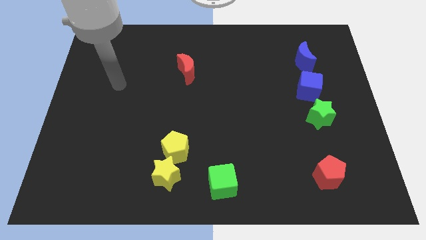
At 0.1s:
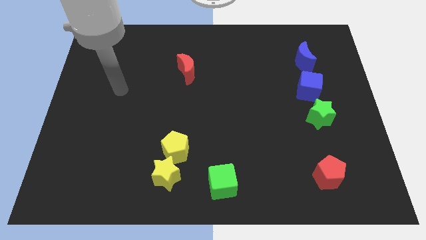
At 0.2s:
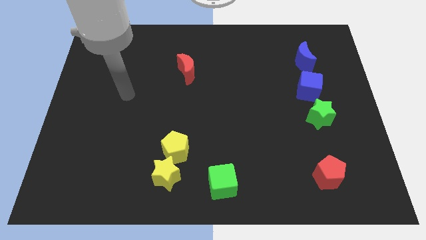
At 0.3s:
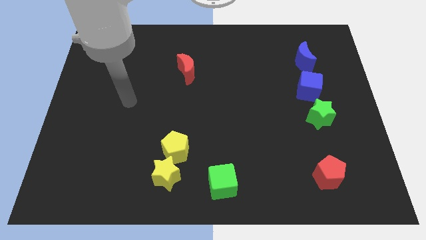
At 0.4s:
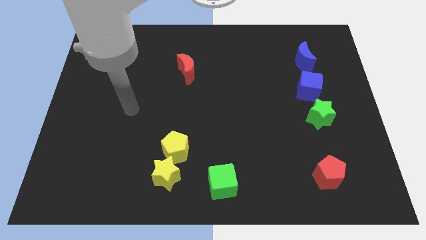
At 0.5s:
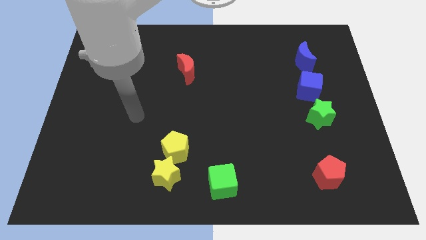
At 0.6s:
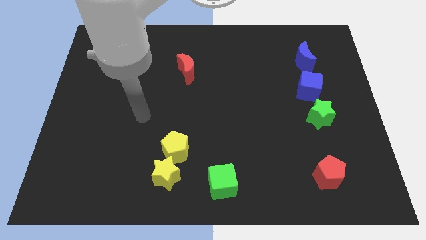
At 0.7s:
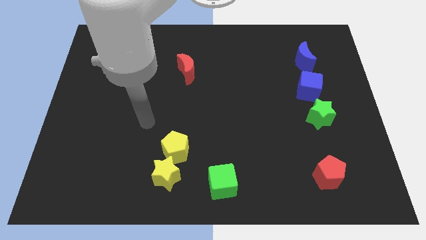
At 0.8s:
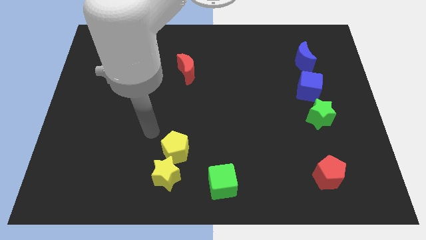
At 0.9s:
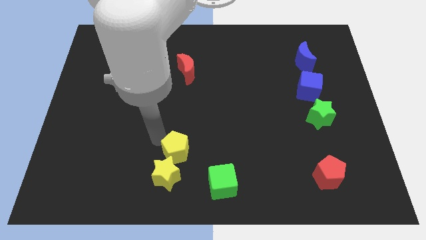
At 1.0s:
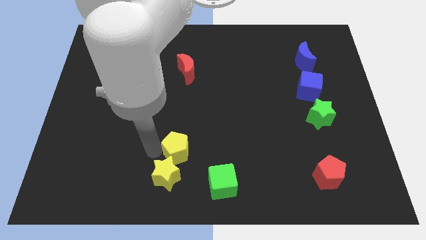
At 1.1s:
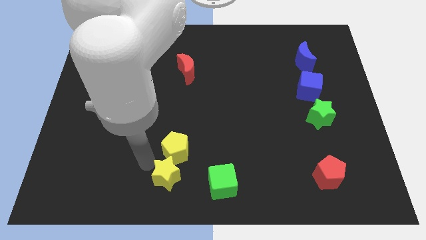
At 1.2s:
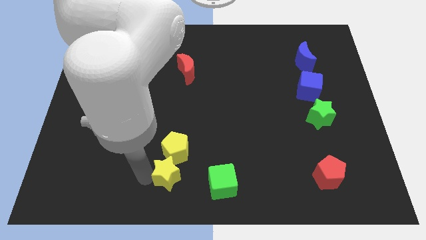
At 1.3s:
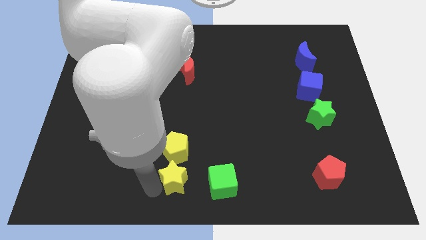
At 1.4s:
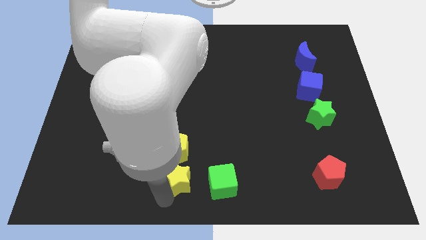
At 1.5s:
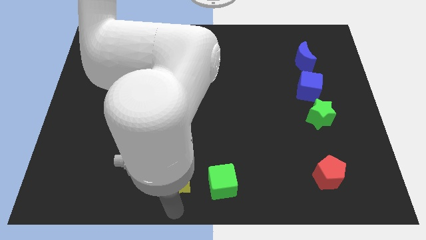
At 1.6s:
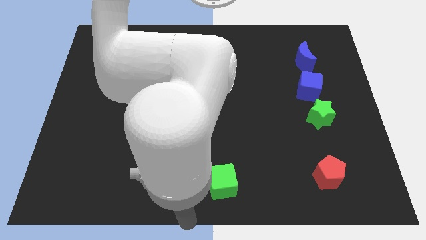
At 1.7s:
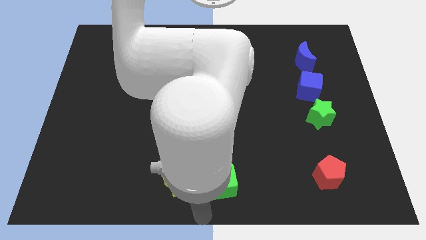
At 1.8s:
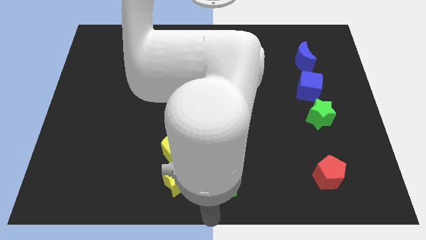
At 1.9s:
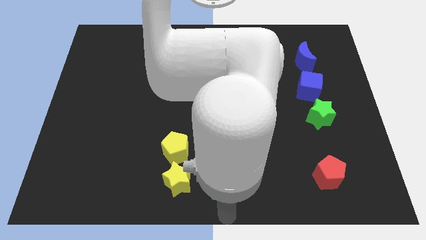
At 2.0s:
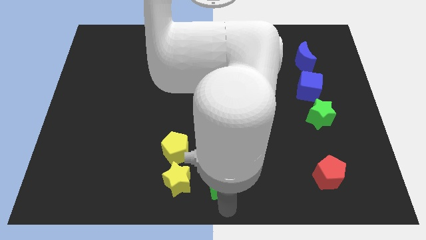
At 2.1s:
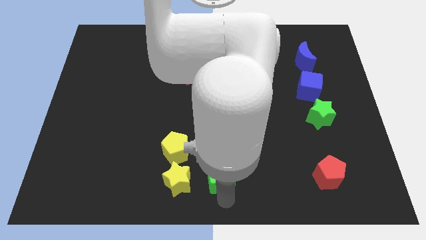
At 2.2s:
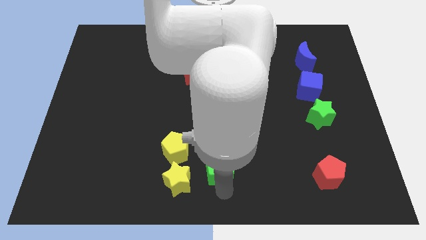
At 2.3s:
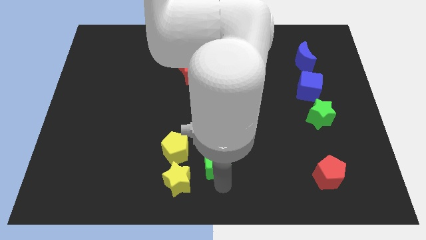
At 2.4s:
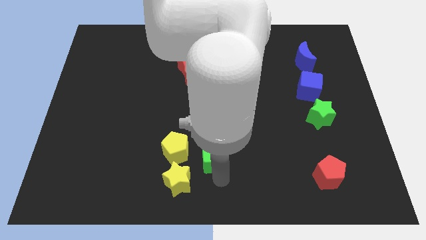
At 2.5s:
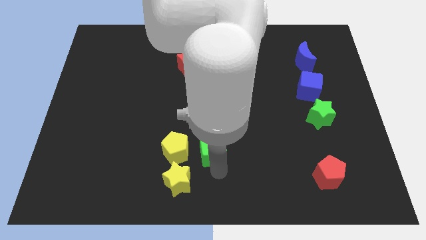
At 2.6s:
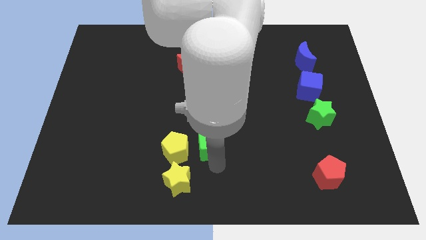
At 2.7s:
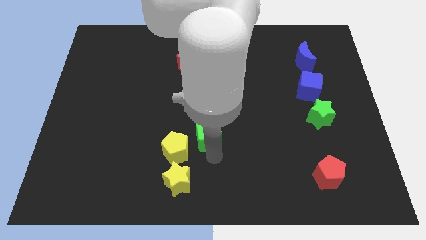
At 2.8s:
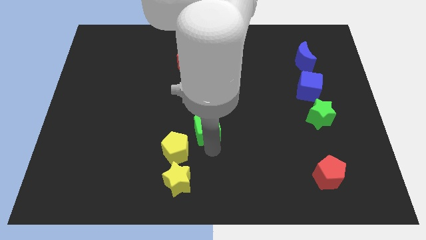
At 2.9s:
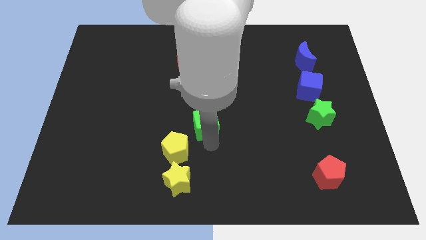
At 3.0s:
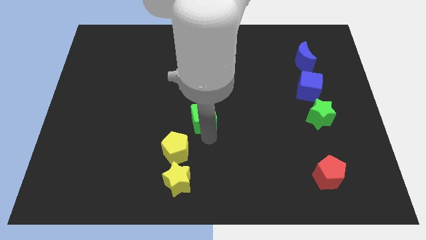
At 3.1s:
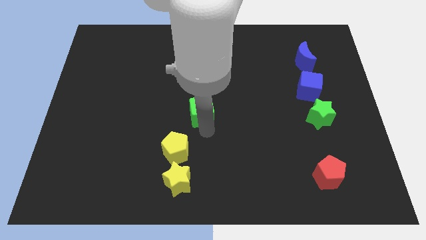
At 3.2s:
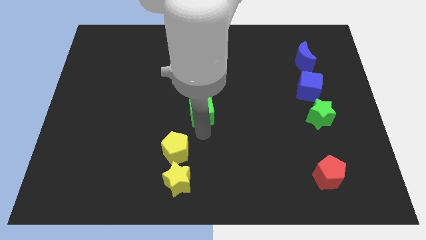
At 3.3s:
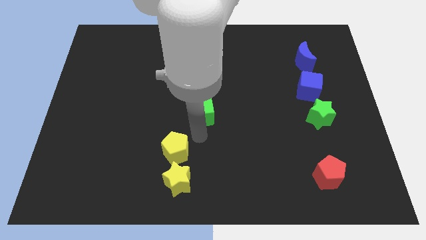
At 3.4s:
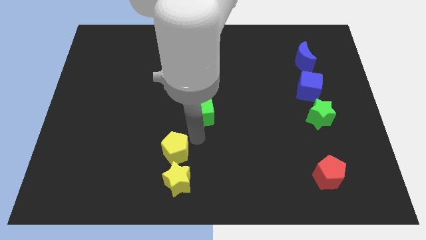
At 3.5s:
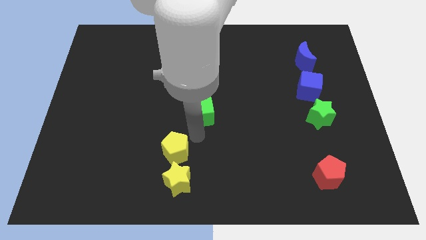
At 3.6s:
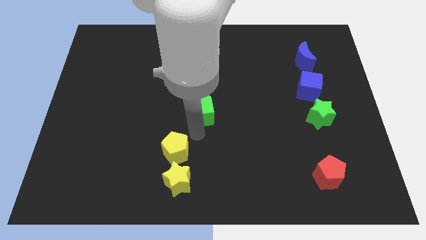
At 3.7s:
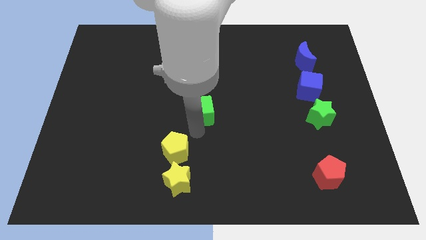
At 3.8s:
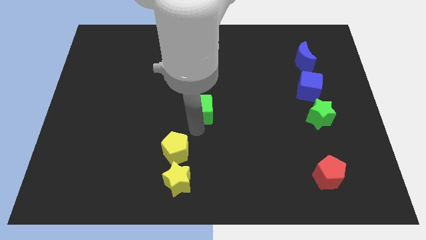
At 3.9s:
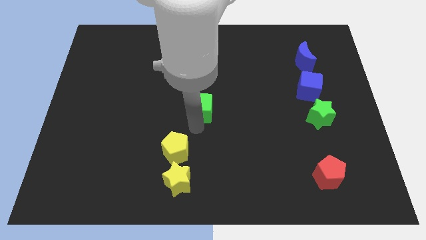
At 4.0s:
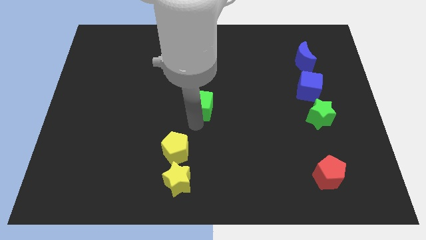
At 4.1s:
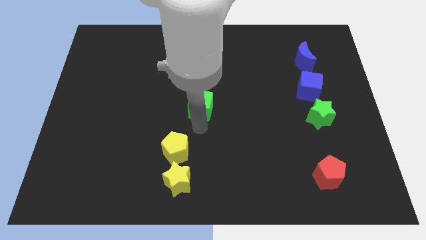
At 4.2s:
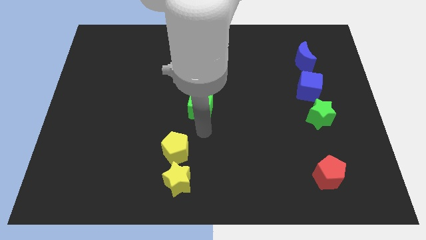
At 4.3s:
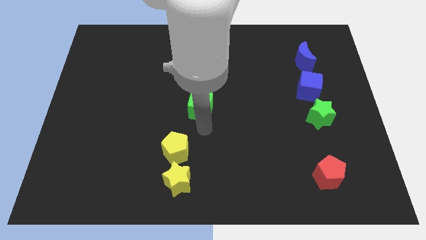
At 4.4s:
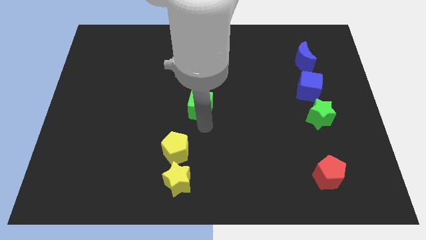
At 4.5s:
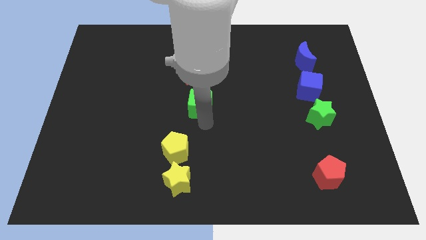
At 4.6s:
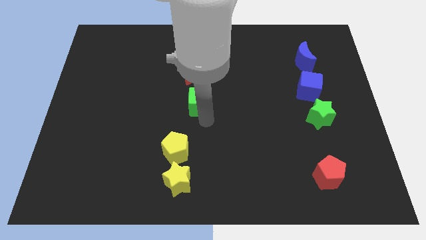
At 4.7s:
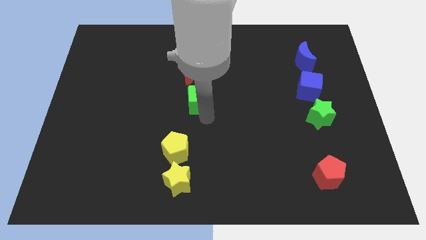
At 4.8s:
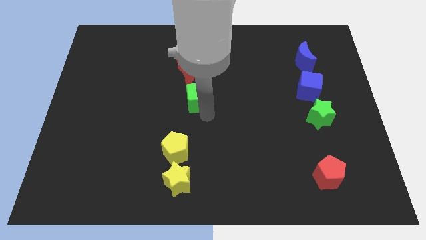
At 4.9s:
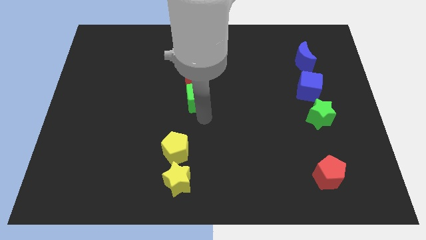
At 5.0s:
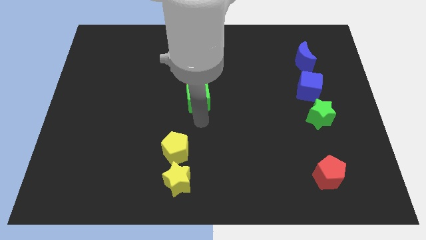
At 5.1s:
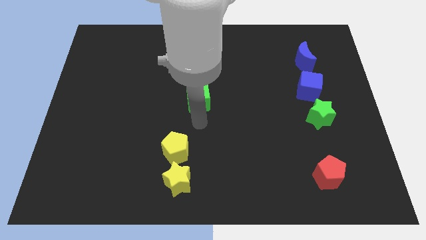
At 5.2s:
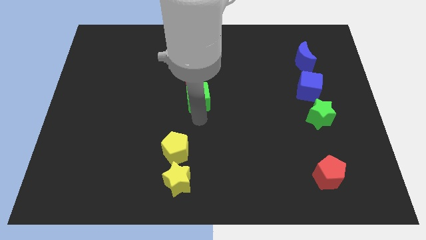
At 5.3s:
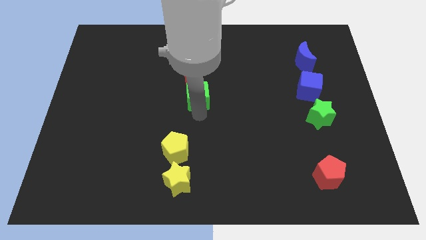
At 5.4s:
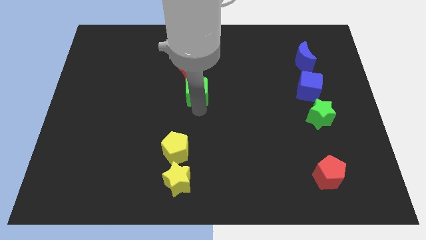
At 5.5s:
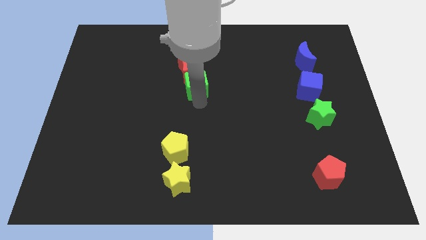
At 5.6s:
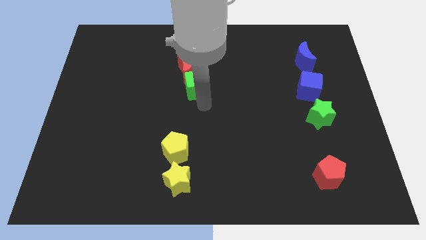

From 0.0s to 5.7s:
slide the green cube to the red moon

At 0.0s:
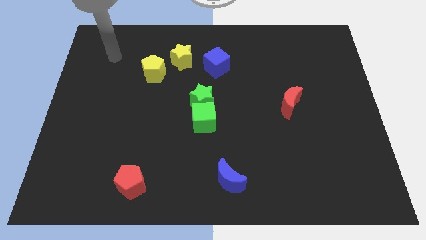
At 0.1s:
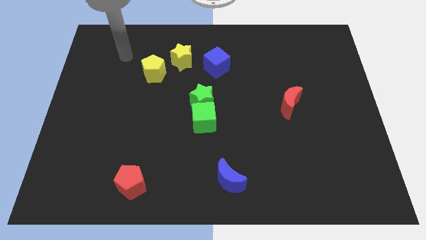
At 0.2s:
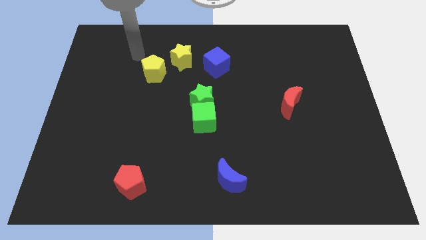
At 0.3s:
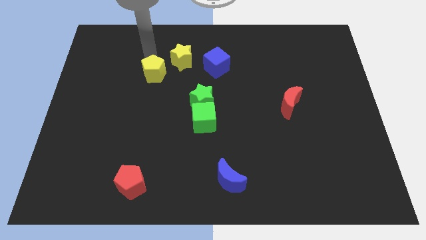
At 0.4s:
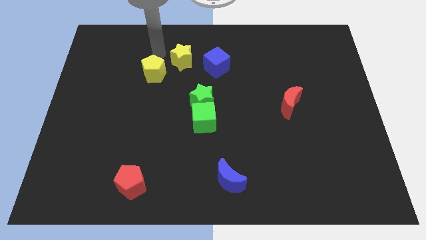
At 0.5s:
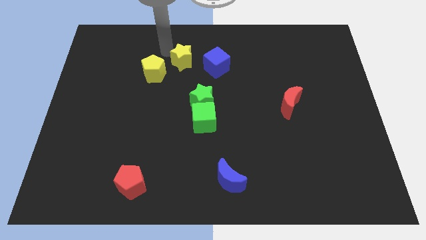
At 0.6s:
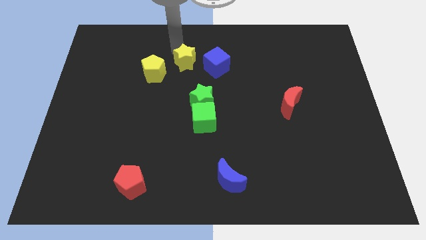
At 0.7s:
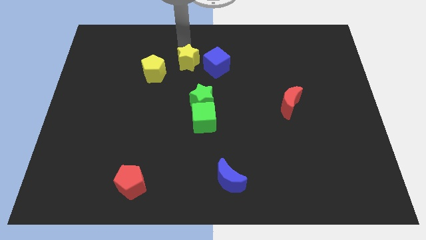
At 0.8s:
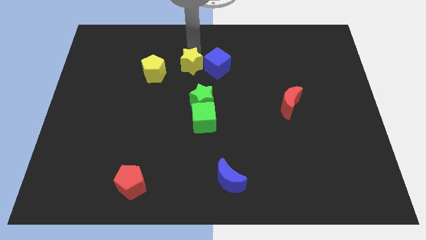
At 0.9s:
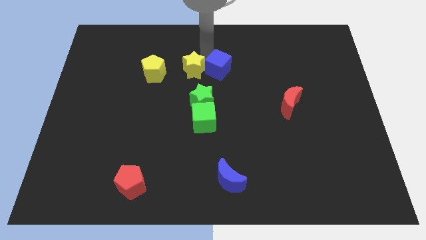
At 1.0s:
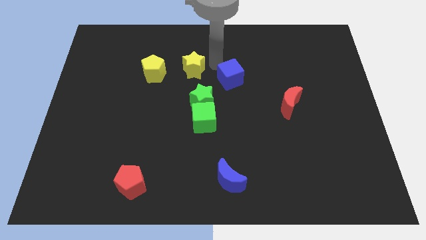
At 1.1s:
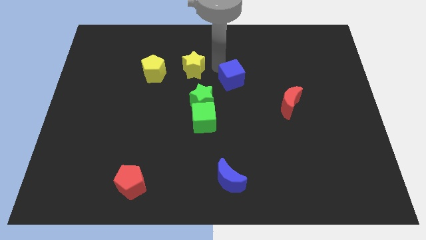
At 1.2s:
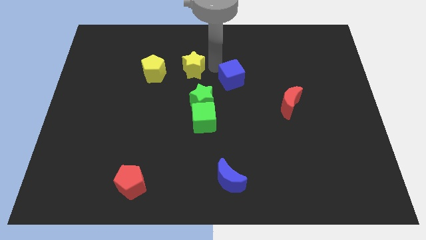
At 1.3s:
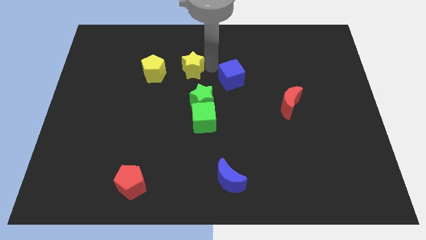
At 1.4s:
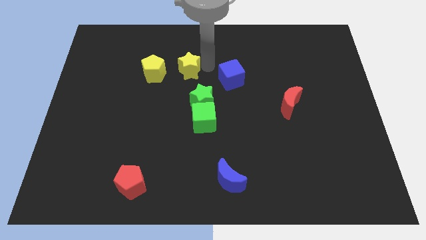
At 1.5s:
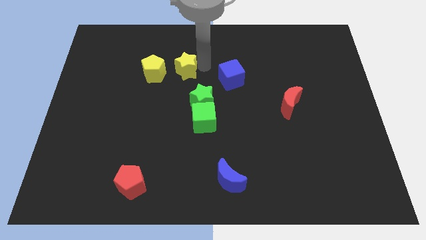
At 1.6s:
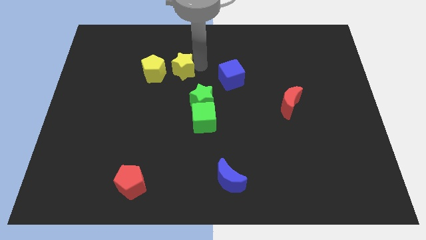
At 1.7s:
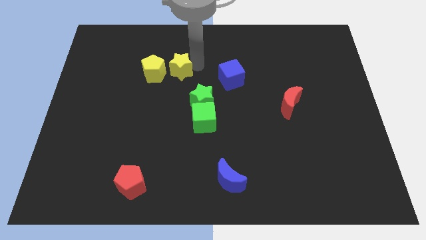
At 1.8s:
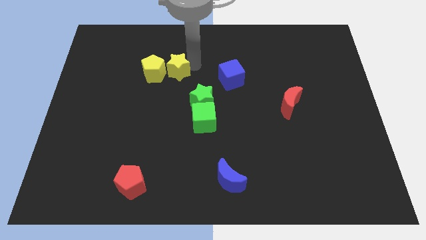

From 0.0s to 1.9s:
move the yellow star towards the yellow pentagon
